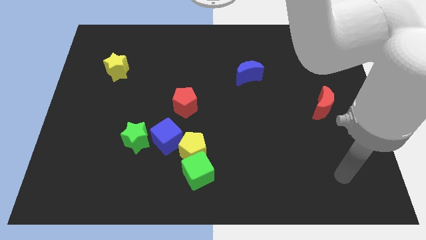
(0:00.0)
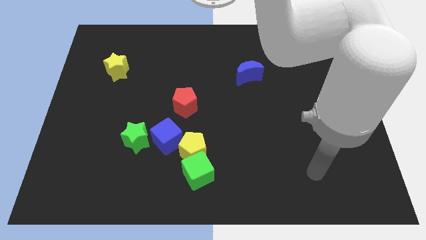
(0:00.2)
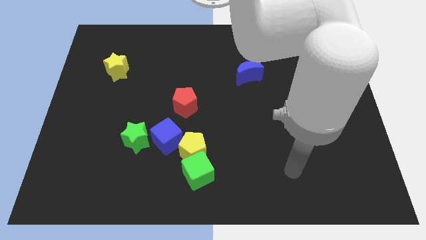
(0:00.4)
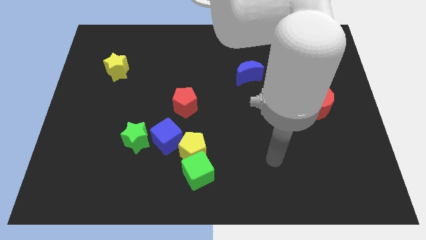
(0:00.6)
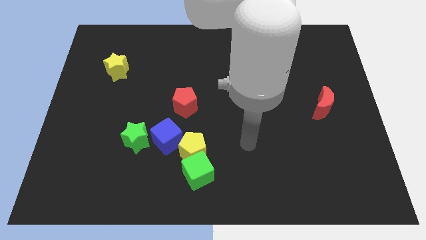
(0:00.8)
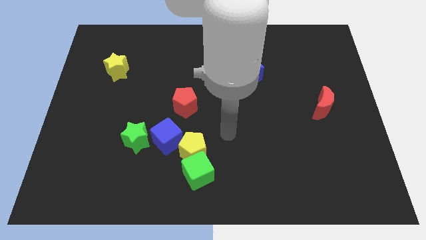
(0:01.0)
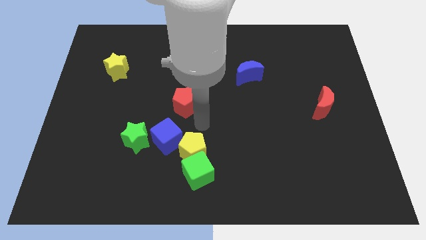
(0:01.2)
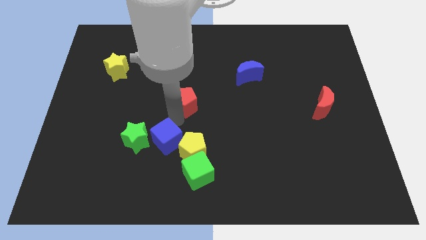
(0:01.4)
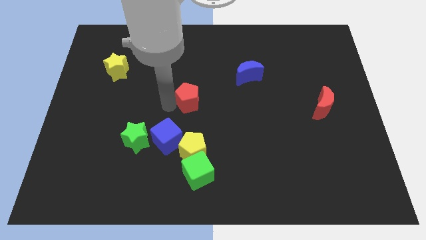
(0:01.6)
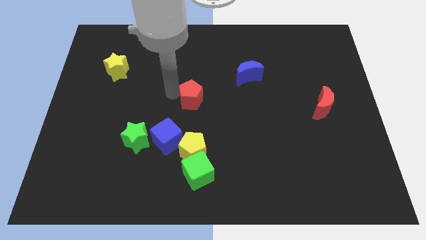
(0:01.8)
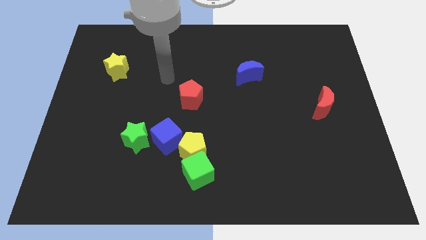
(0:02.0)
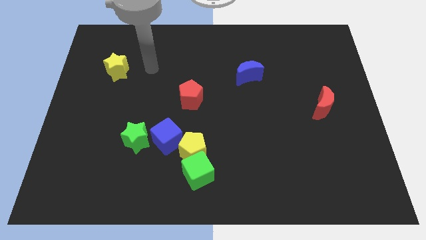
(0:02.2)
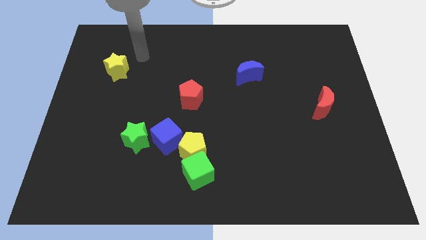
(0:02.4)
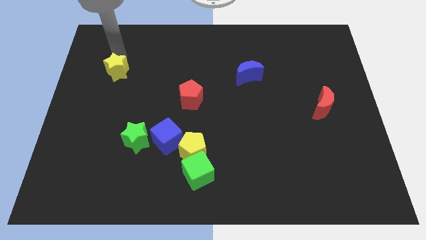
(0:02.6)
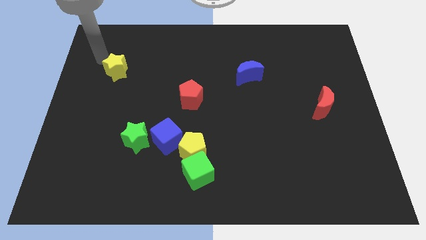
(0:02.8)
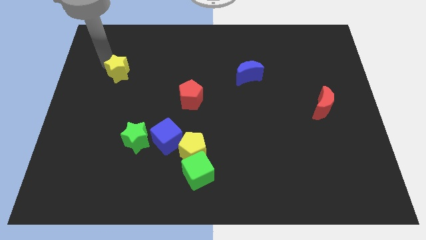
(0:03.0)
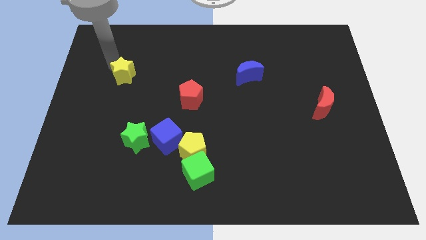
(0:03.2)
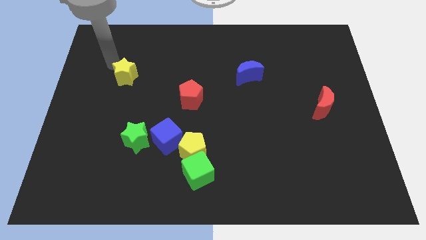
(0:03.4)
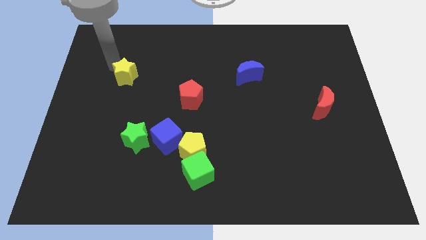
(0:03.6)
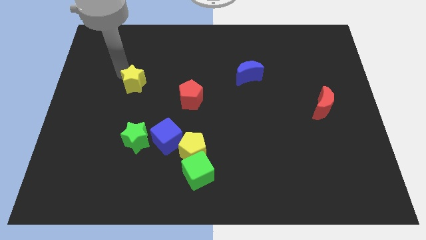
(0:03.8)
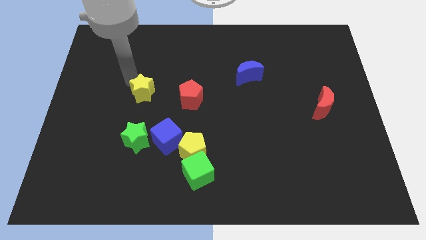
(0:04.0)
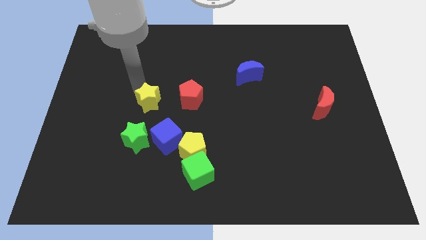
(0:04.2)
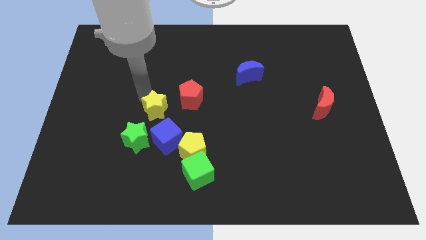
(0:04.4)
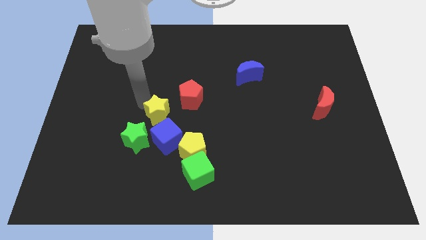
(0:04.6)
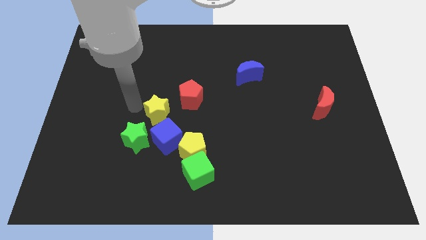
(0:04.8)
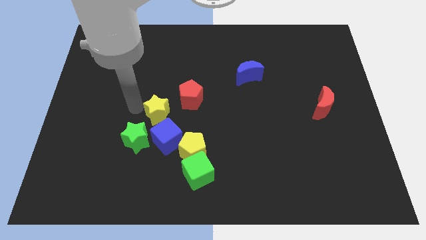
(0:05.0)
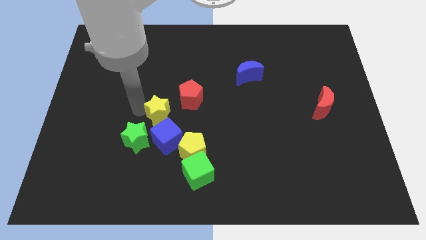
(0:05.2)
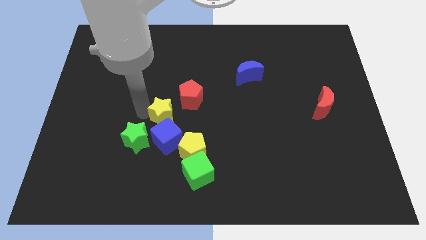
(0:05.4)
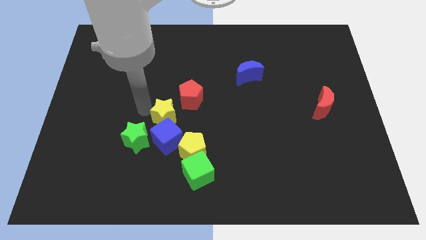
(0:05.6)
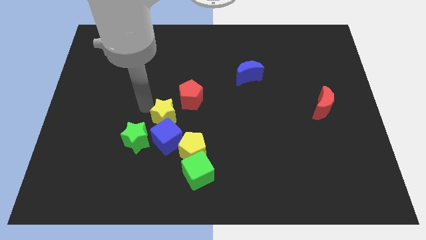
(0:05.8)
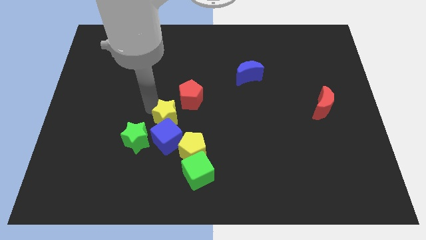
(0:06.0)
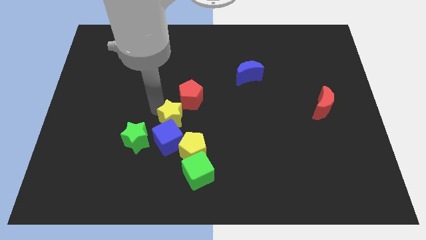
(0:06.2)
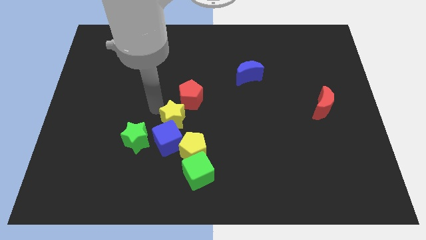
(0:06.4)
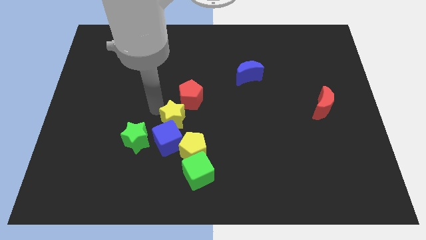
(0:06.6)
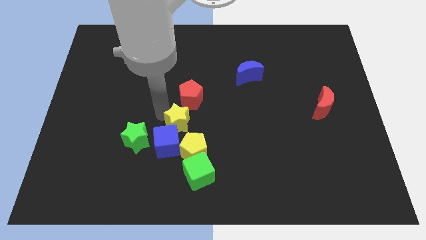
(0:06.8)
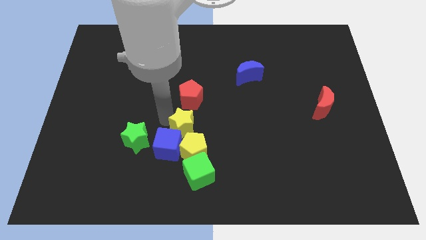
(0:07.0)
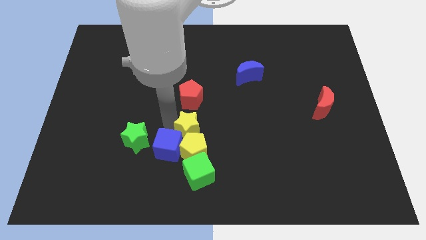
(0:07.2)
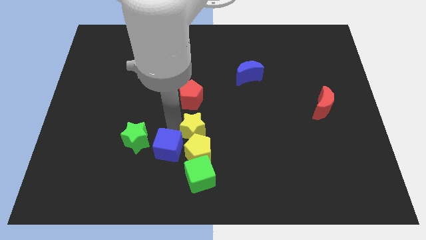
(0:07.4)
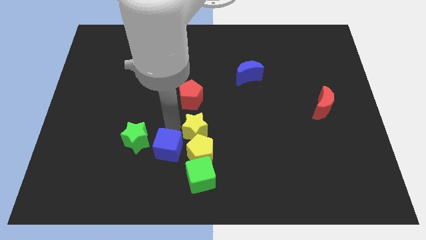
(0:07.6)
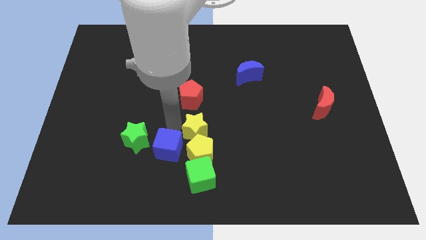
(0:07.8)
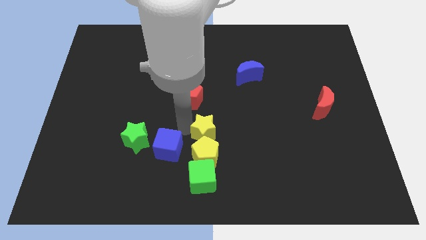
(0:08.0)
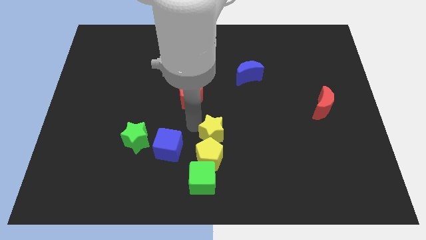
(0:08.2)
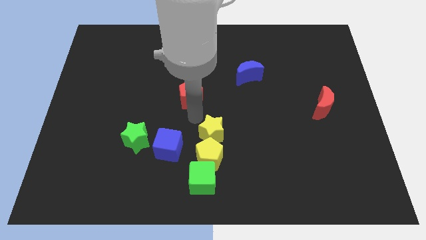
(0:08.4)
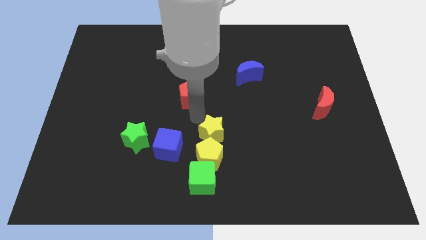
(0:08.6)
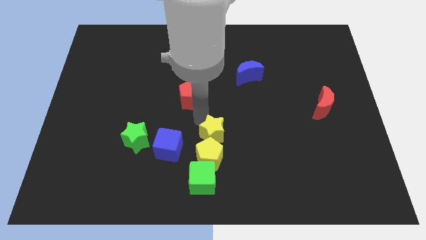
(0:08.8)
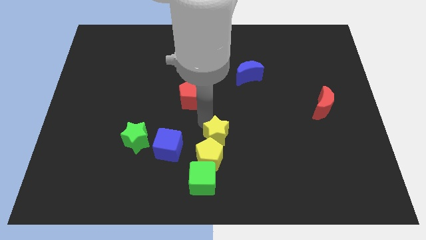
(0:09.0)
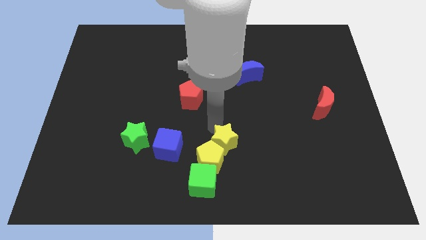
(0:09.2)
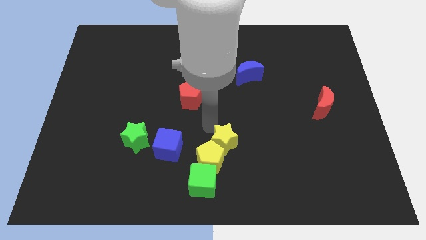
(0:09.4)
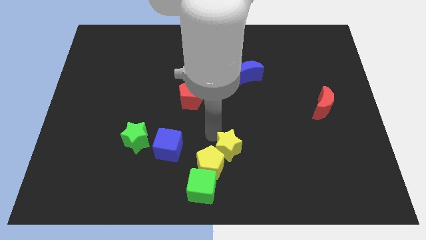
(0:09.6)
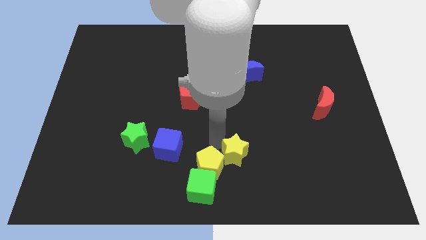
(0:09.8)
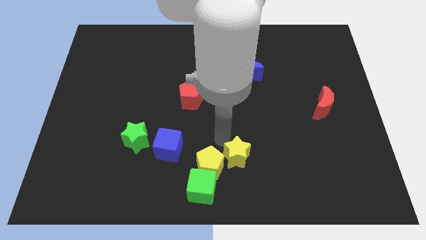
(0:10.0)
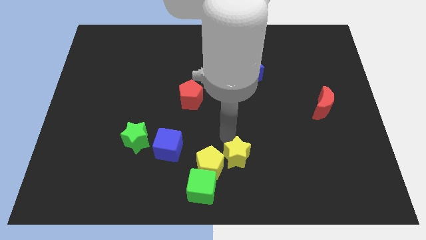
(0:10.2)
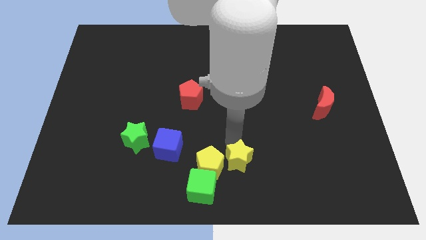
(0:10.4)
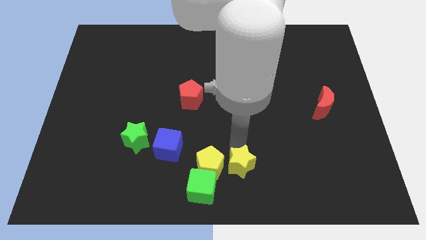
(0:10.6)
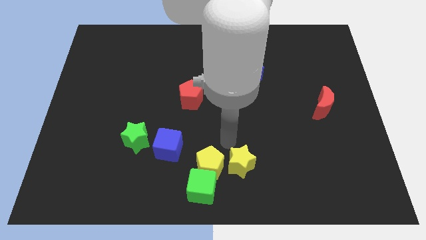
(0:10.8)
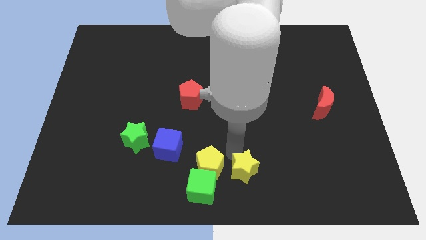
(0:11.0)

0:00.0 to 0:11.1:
push the yellow star to the right side of the green cube

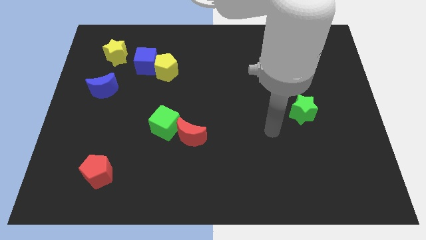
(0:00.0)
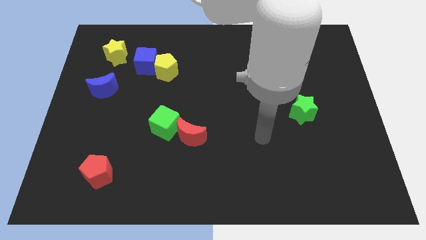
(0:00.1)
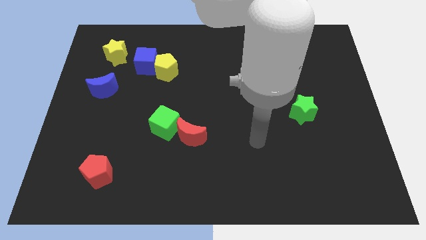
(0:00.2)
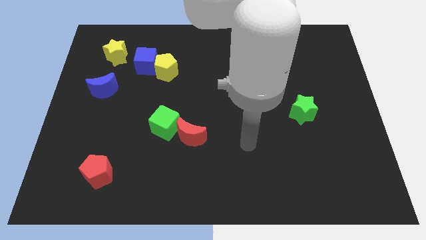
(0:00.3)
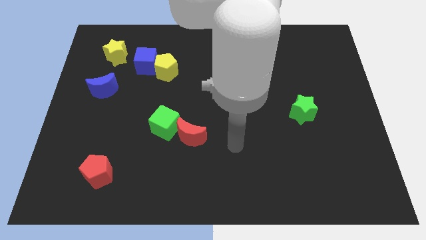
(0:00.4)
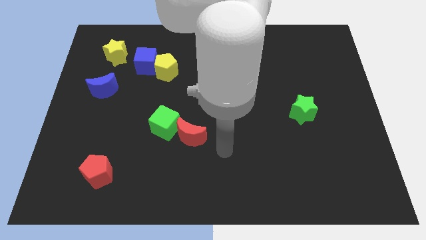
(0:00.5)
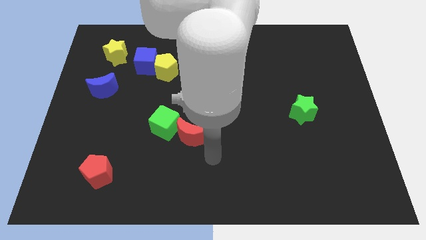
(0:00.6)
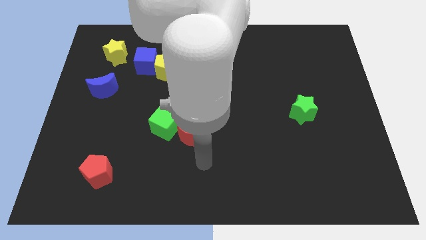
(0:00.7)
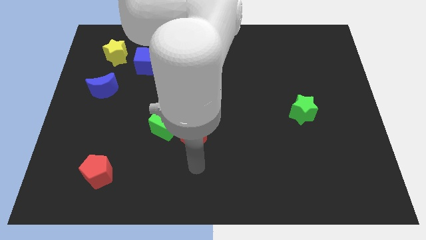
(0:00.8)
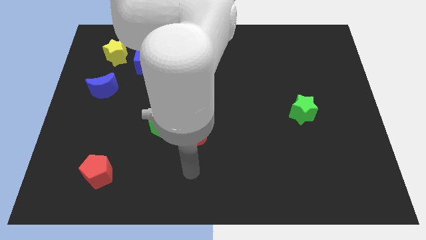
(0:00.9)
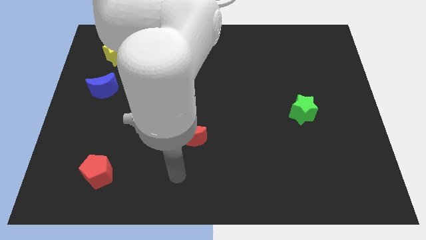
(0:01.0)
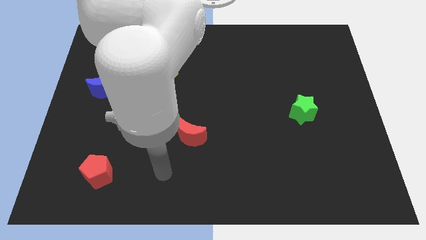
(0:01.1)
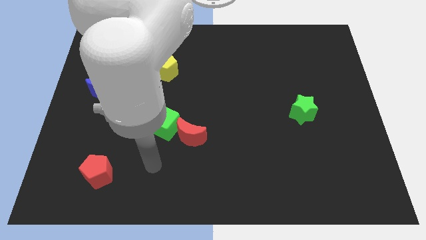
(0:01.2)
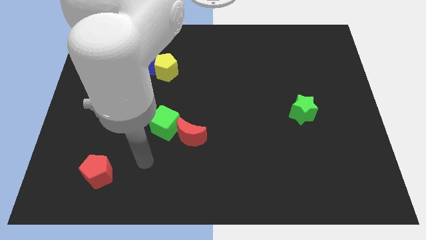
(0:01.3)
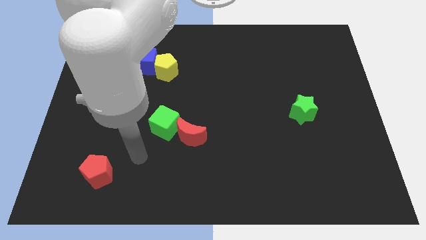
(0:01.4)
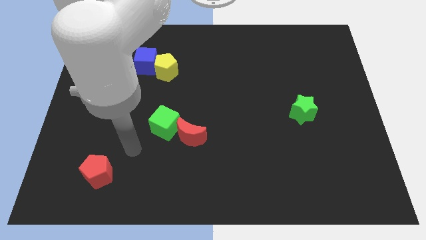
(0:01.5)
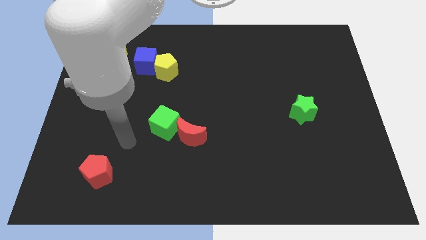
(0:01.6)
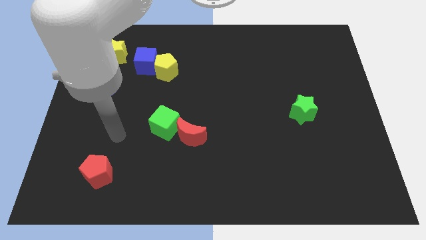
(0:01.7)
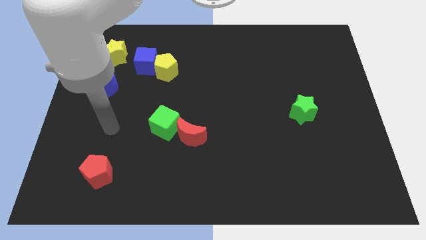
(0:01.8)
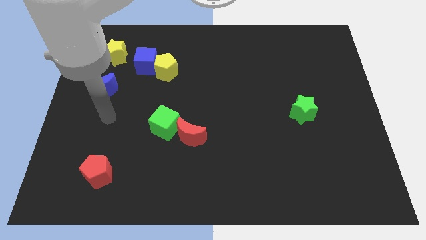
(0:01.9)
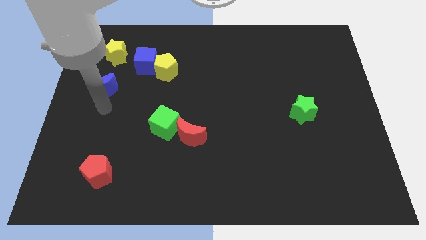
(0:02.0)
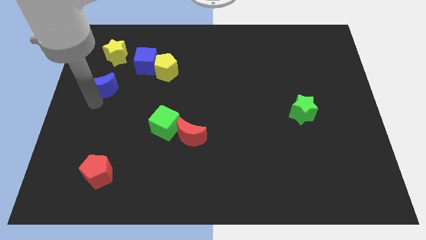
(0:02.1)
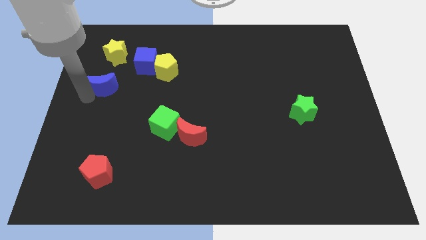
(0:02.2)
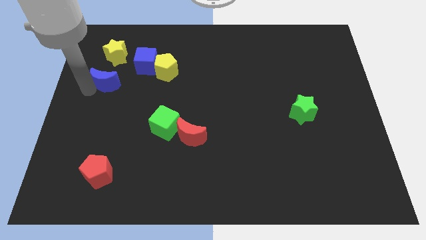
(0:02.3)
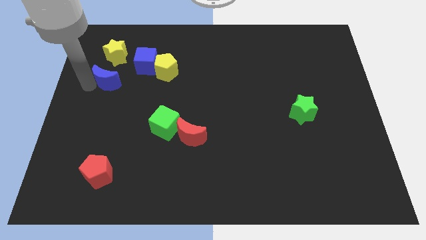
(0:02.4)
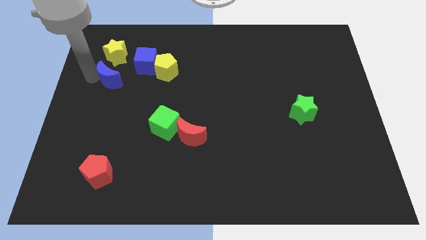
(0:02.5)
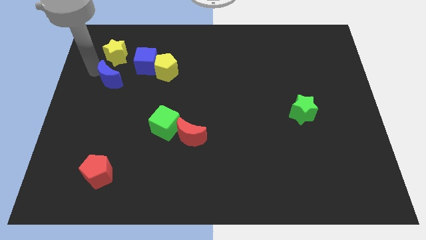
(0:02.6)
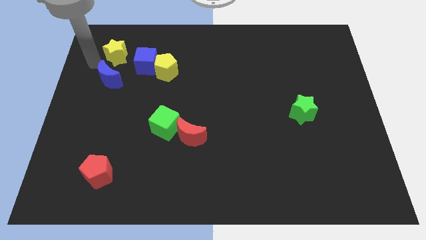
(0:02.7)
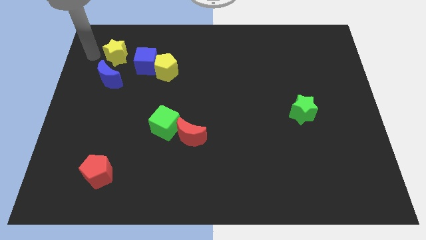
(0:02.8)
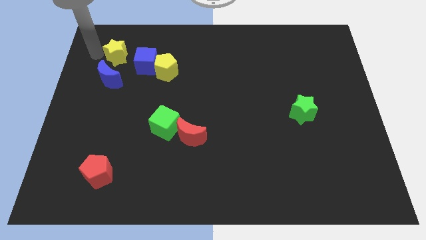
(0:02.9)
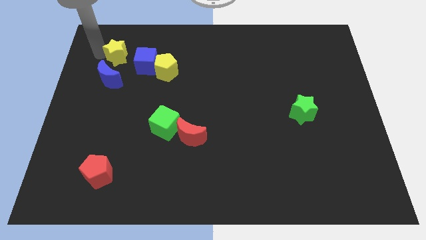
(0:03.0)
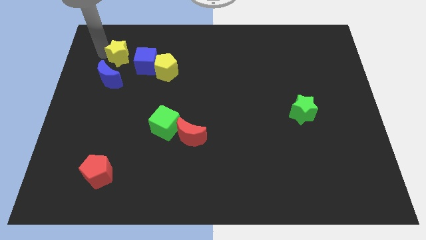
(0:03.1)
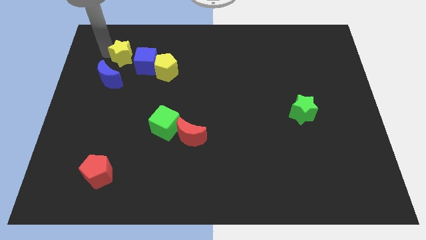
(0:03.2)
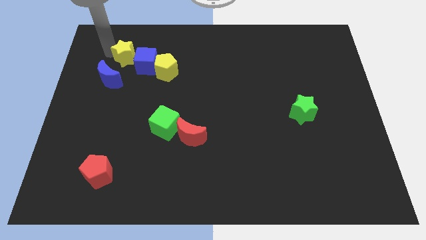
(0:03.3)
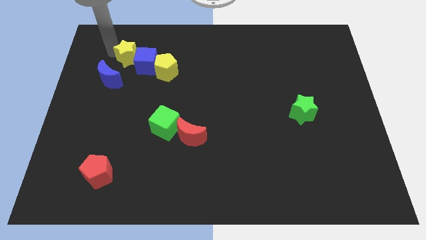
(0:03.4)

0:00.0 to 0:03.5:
move the yellow star diagonally up and to the left of the yellow pentagon
